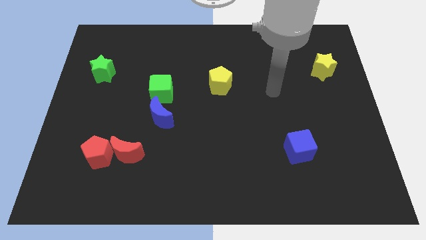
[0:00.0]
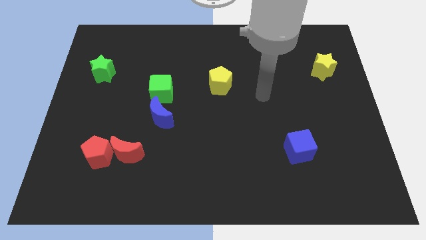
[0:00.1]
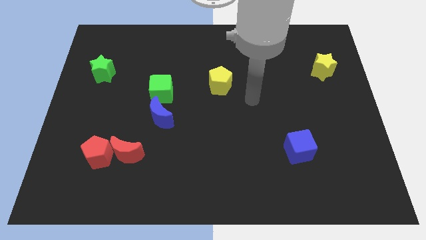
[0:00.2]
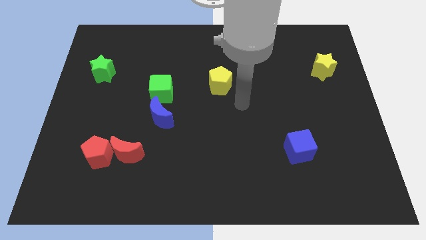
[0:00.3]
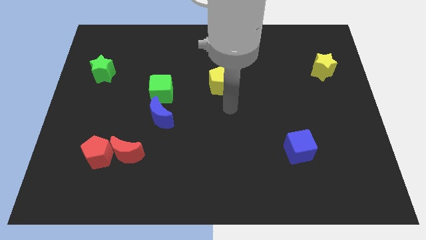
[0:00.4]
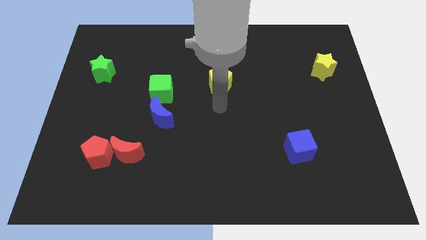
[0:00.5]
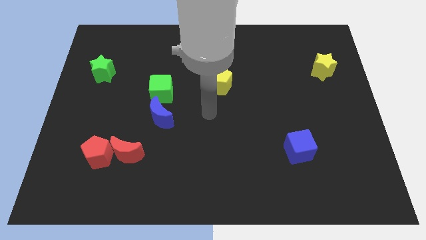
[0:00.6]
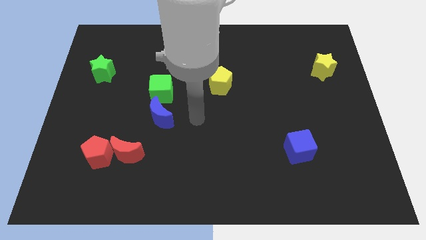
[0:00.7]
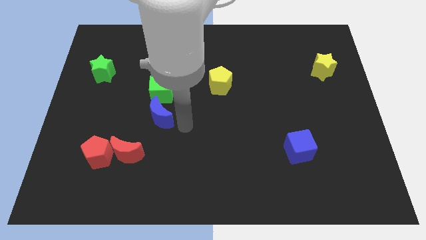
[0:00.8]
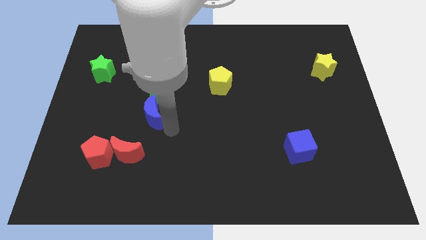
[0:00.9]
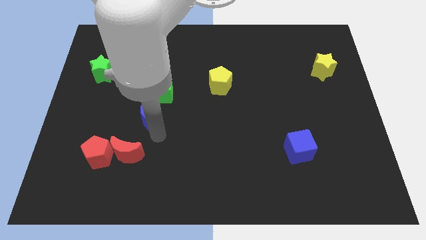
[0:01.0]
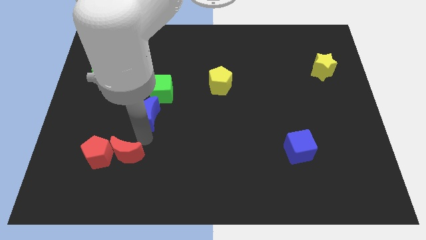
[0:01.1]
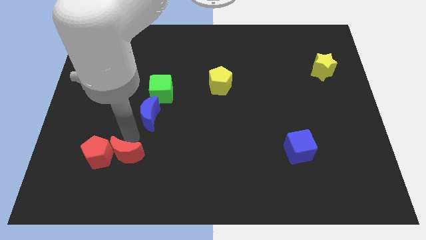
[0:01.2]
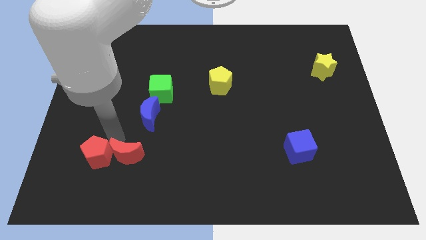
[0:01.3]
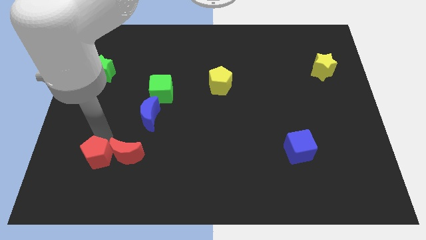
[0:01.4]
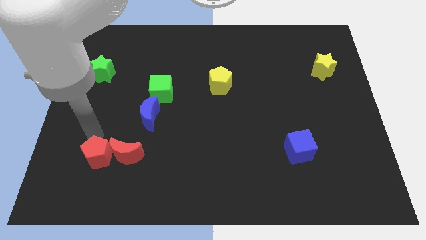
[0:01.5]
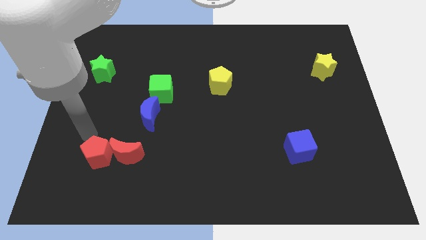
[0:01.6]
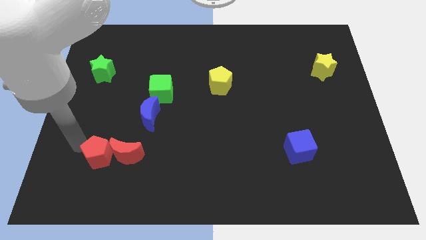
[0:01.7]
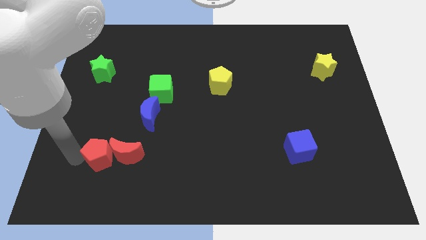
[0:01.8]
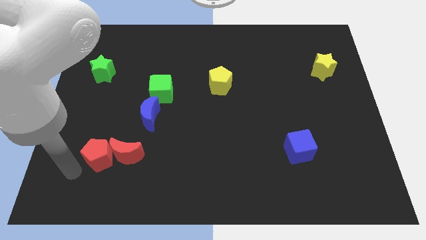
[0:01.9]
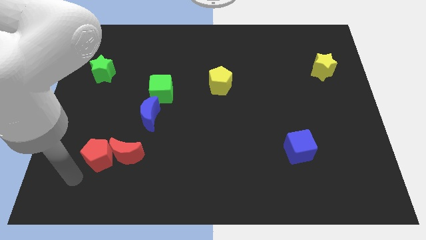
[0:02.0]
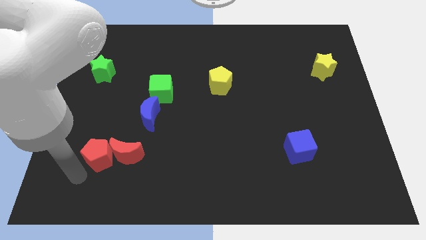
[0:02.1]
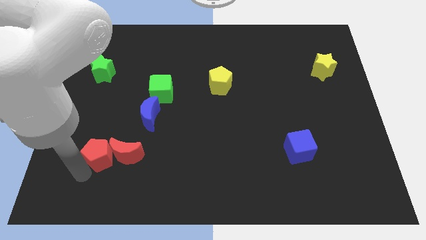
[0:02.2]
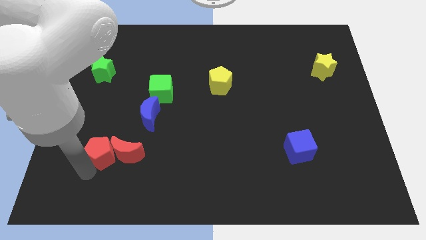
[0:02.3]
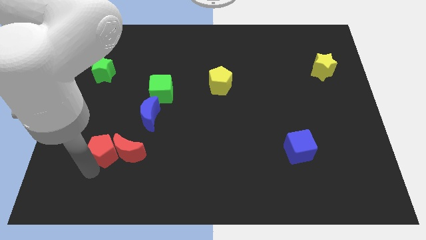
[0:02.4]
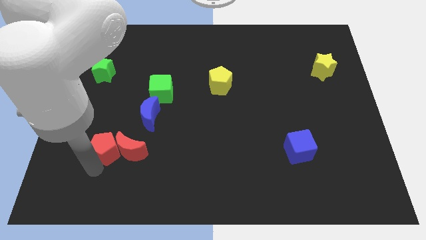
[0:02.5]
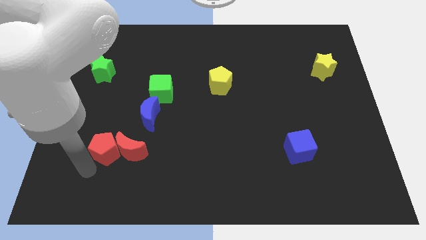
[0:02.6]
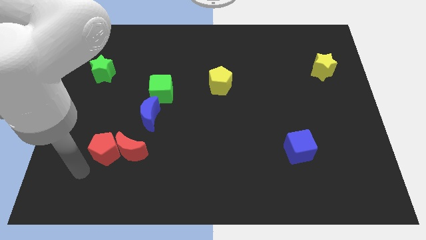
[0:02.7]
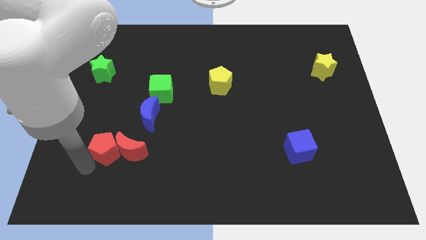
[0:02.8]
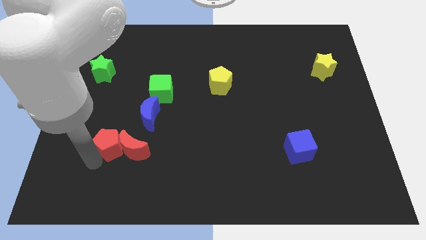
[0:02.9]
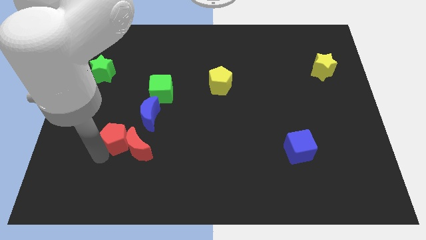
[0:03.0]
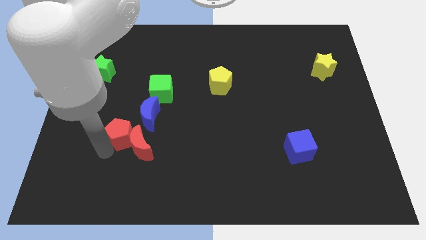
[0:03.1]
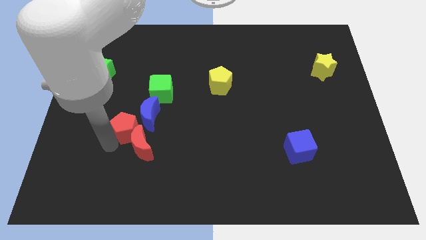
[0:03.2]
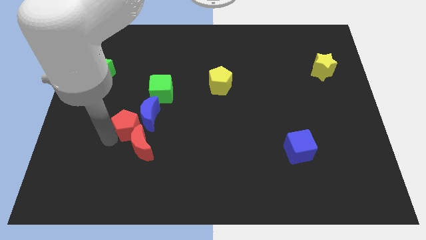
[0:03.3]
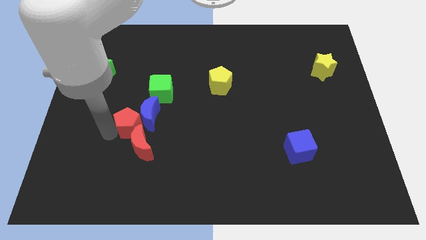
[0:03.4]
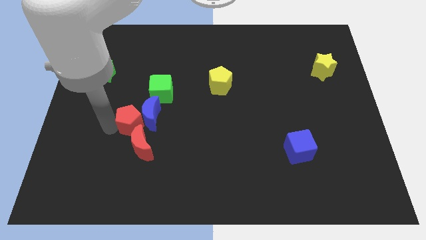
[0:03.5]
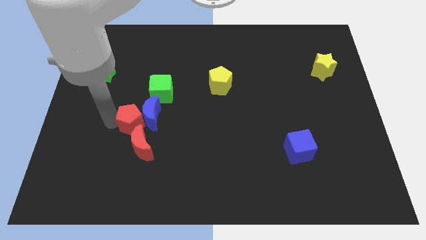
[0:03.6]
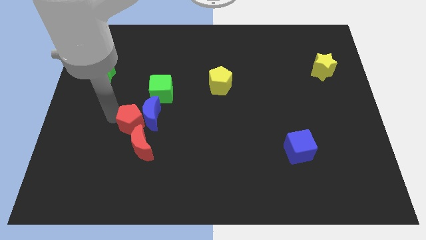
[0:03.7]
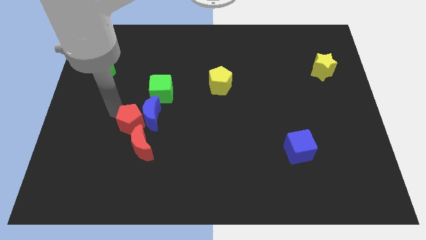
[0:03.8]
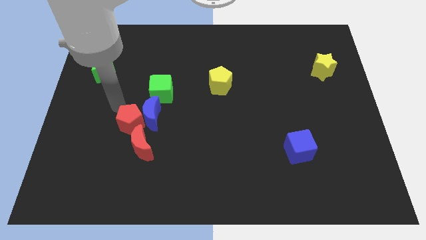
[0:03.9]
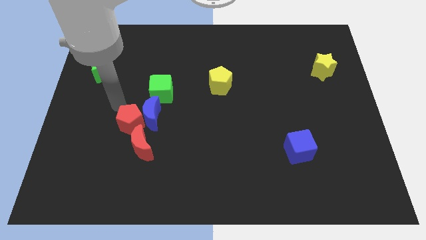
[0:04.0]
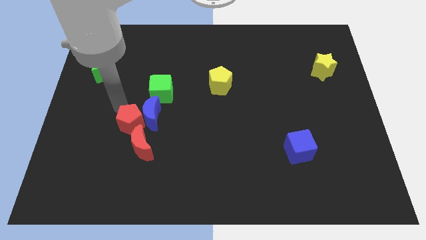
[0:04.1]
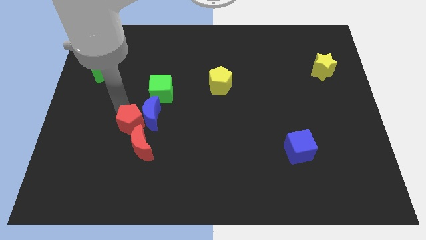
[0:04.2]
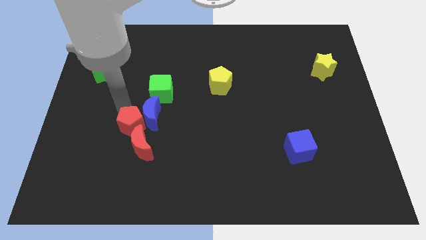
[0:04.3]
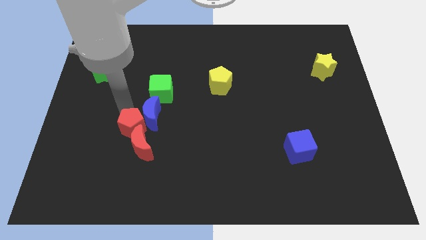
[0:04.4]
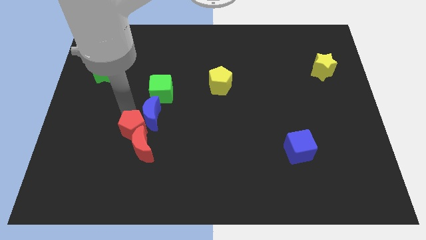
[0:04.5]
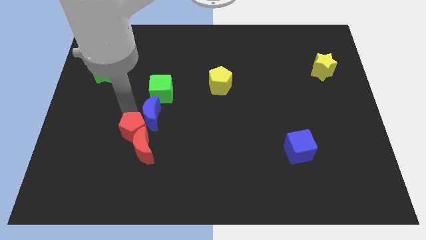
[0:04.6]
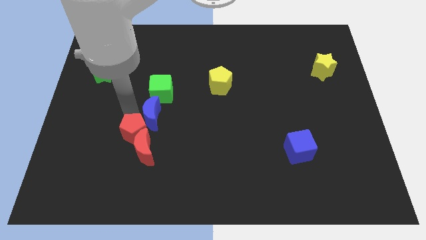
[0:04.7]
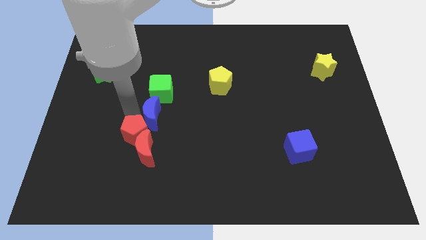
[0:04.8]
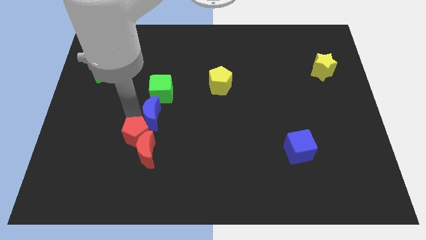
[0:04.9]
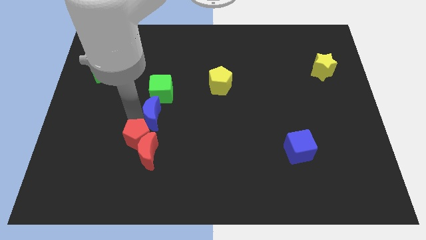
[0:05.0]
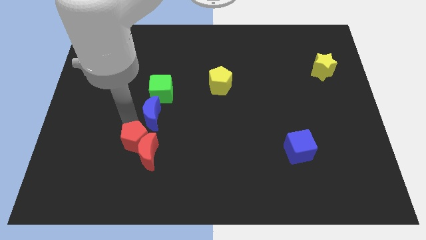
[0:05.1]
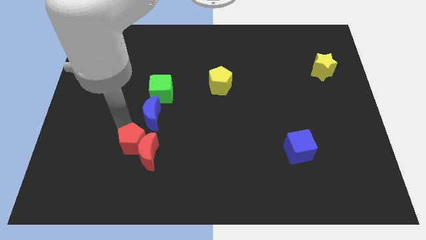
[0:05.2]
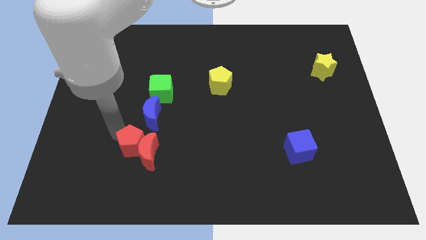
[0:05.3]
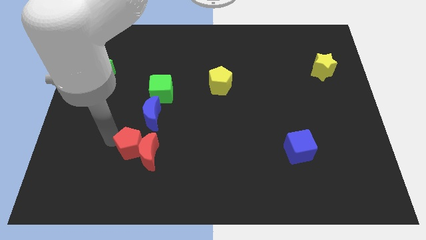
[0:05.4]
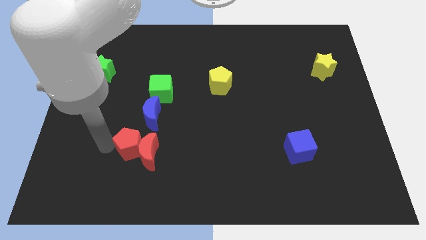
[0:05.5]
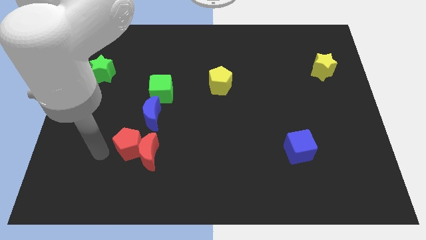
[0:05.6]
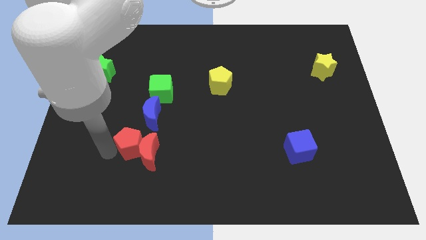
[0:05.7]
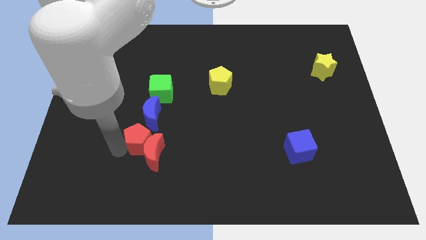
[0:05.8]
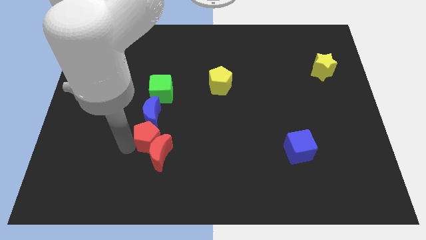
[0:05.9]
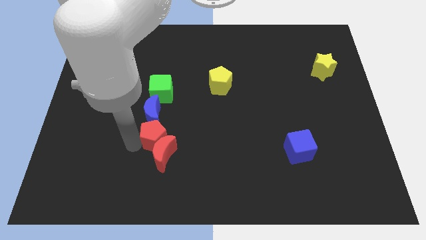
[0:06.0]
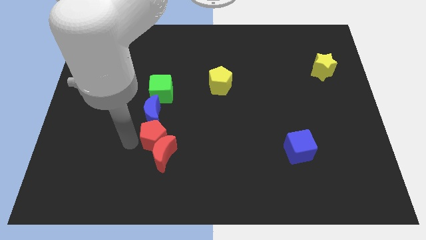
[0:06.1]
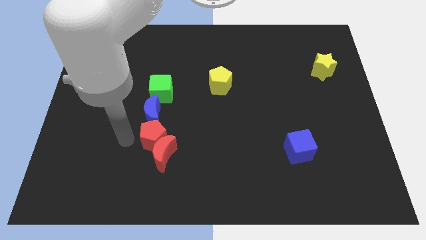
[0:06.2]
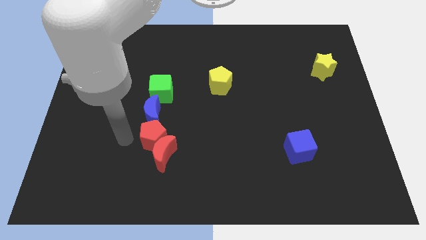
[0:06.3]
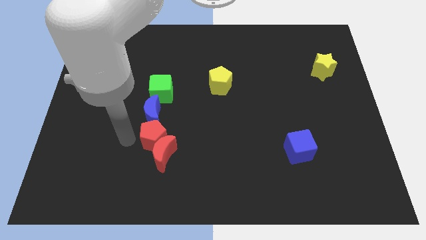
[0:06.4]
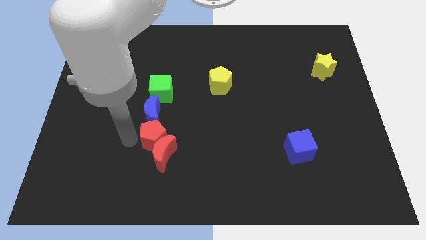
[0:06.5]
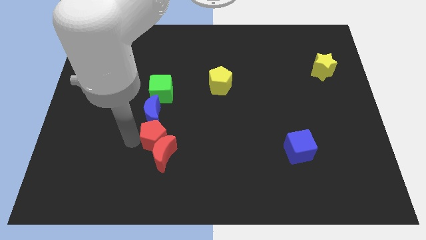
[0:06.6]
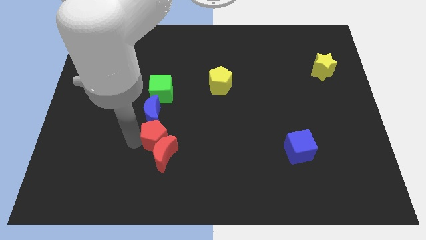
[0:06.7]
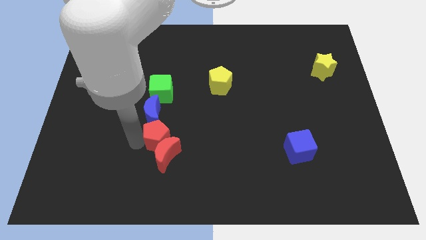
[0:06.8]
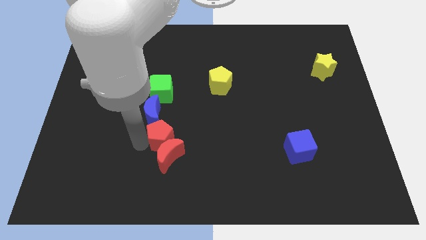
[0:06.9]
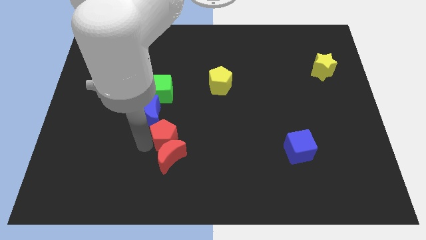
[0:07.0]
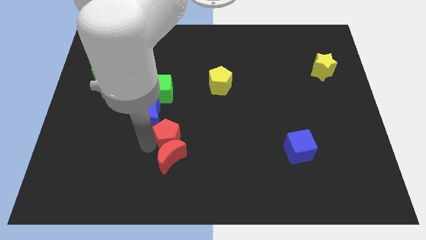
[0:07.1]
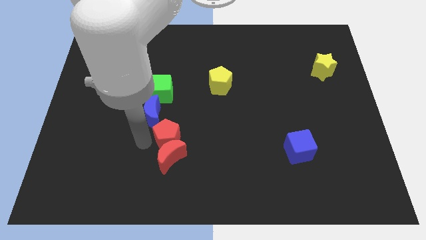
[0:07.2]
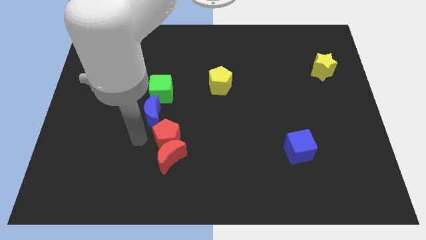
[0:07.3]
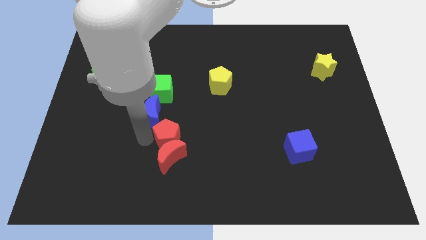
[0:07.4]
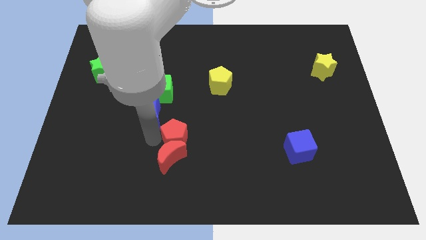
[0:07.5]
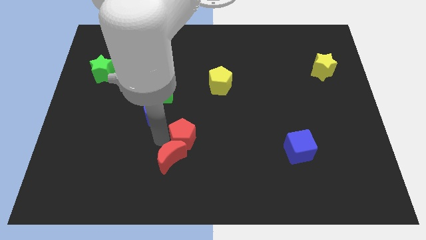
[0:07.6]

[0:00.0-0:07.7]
move the red pentagon to the middle
